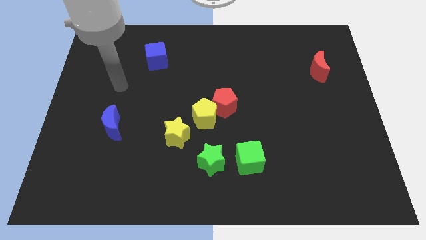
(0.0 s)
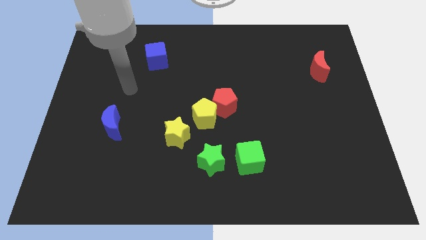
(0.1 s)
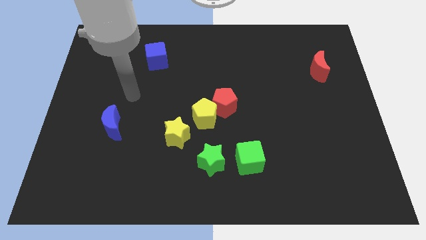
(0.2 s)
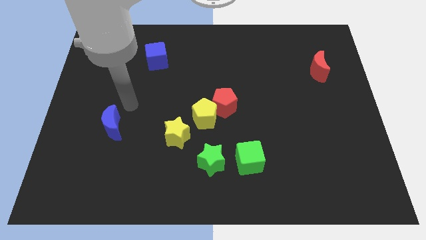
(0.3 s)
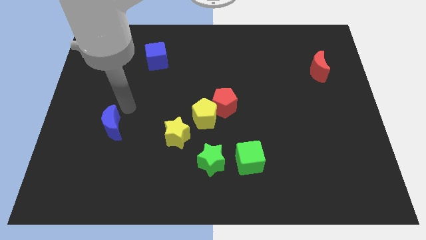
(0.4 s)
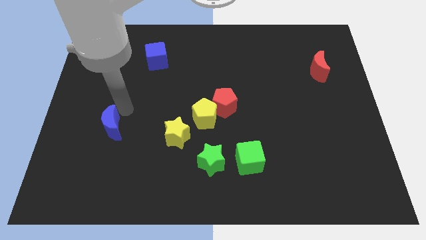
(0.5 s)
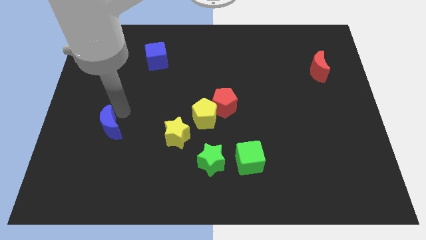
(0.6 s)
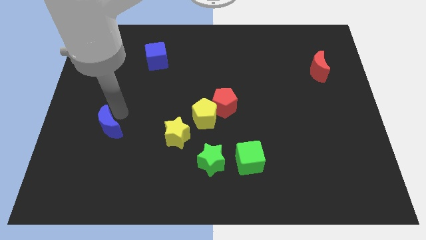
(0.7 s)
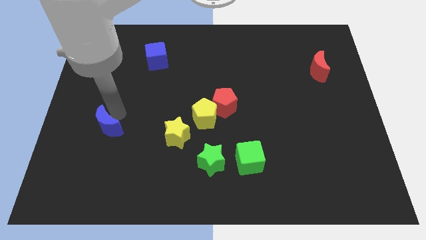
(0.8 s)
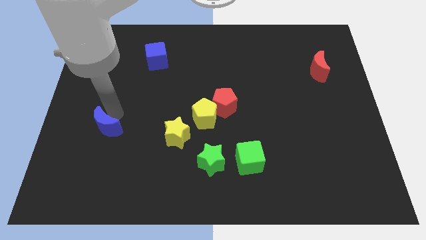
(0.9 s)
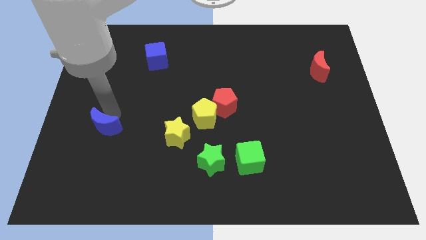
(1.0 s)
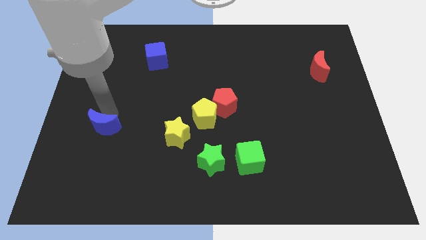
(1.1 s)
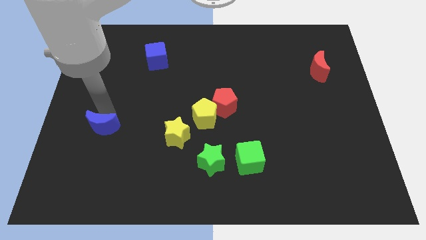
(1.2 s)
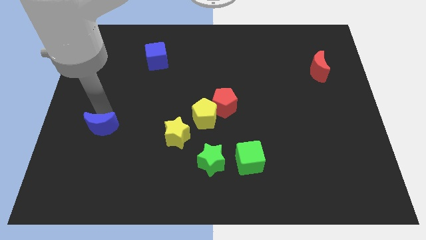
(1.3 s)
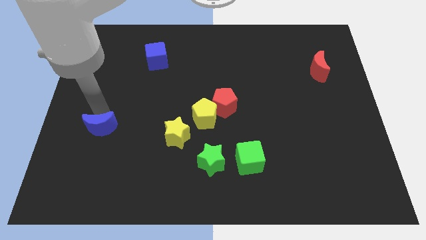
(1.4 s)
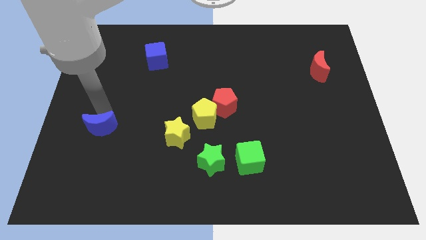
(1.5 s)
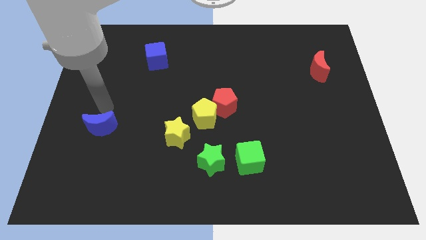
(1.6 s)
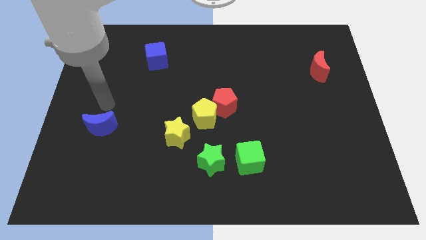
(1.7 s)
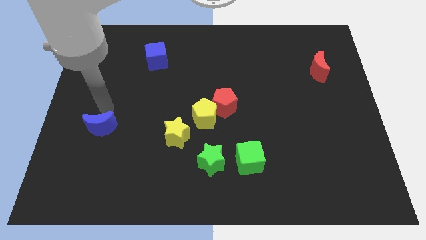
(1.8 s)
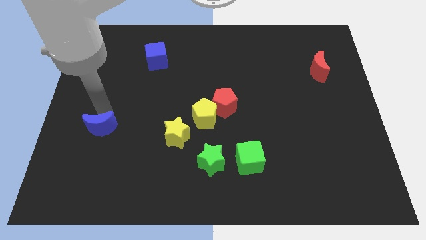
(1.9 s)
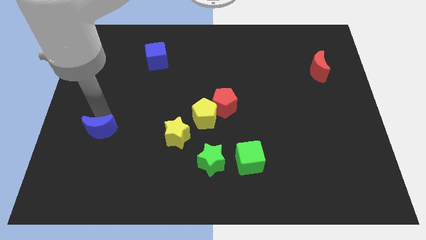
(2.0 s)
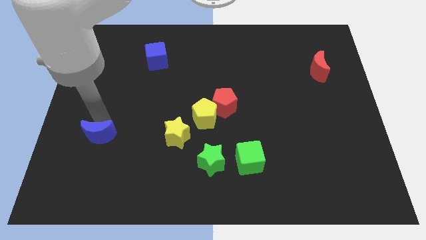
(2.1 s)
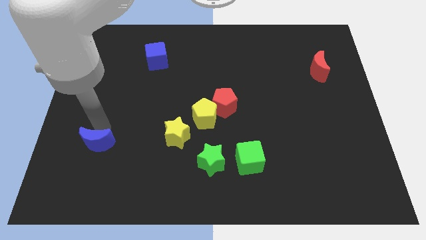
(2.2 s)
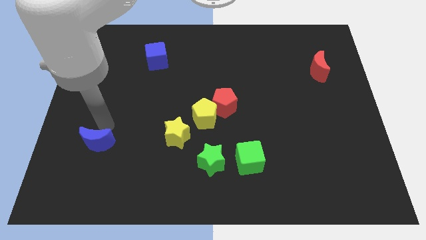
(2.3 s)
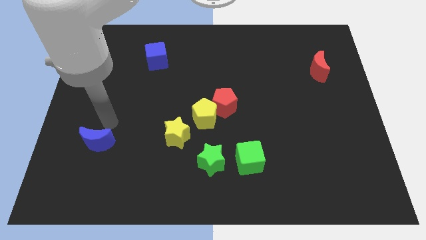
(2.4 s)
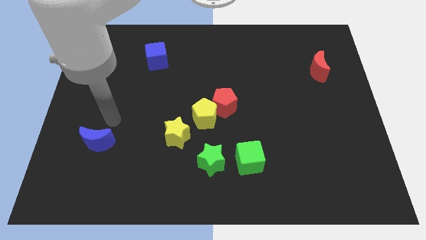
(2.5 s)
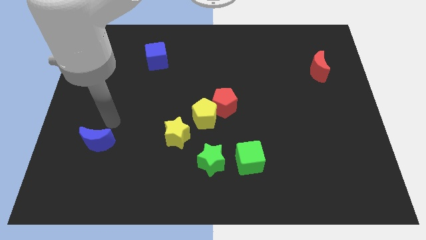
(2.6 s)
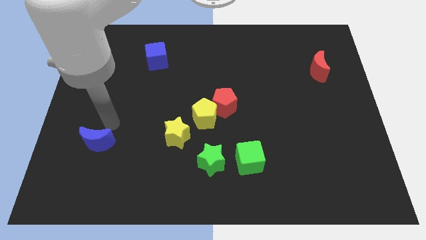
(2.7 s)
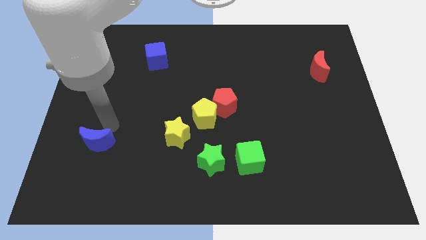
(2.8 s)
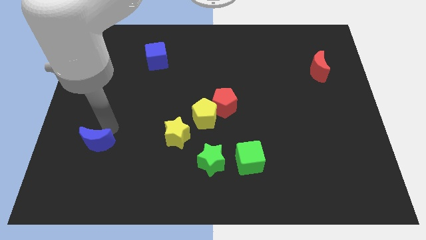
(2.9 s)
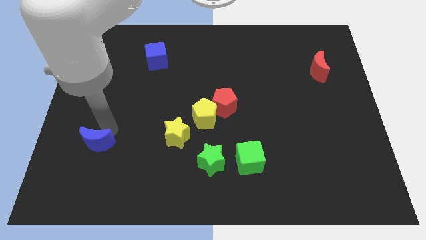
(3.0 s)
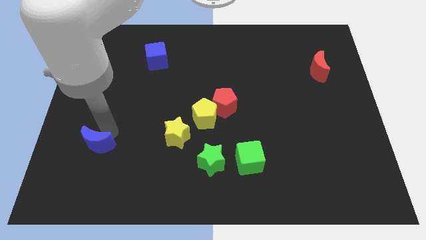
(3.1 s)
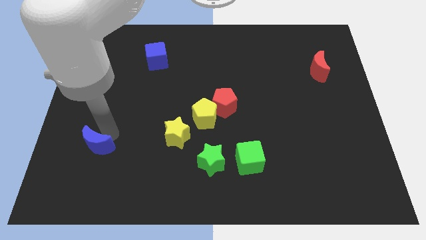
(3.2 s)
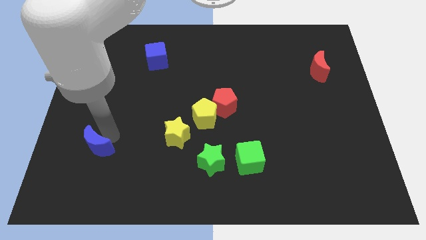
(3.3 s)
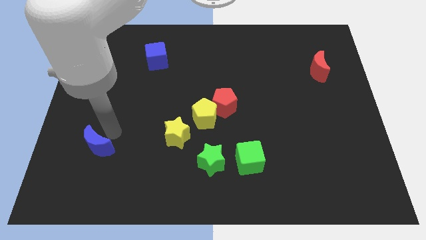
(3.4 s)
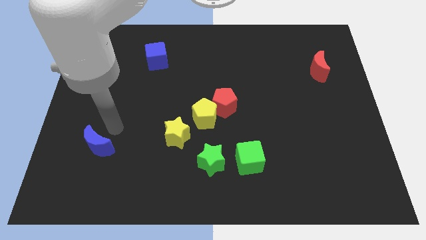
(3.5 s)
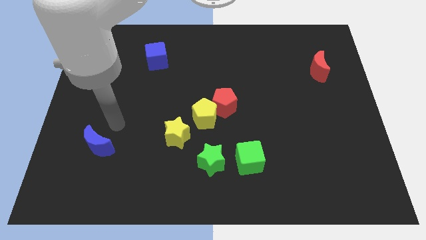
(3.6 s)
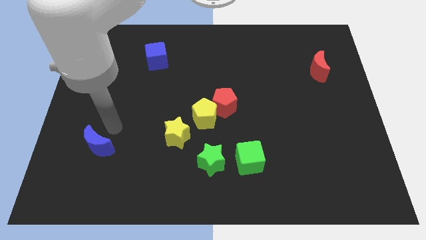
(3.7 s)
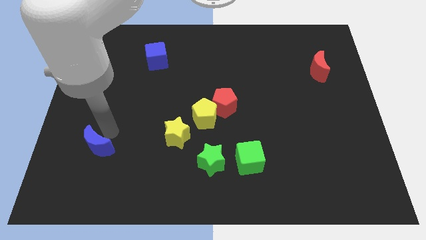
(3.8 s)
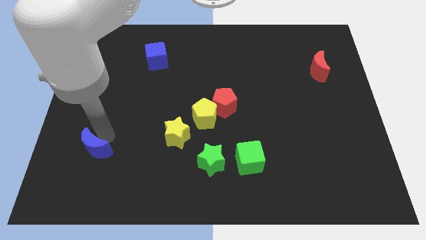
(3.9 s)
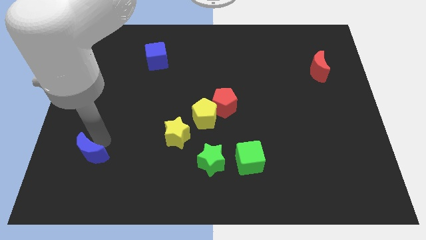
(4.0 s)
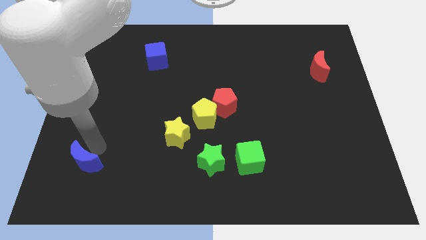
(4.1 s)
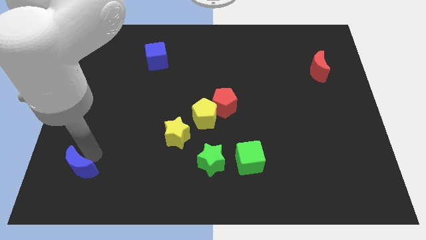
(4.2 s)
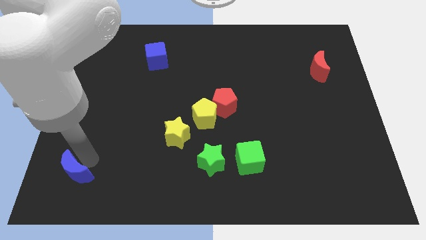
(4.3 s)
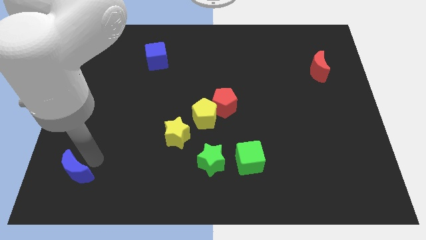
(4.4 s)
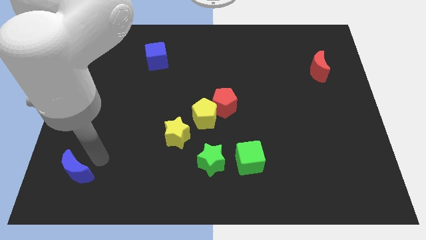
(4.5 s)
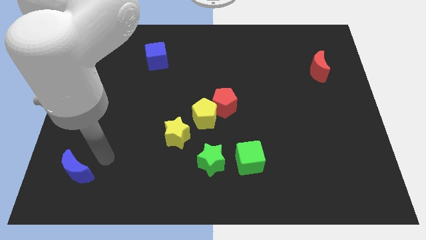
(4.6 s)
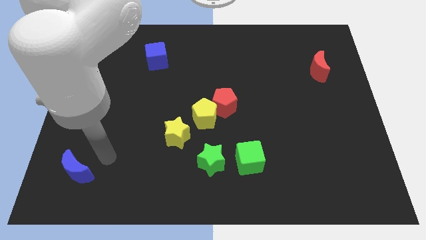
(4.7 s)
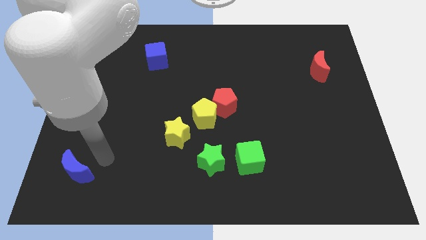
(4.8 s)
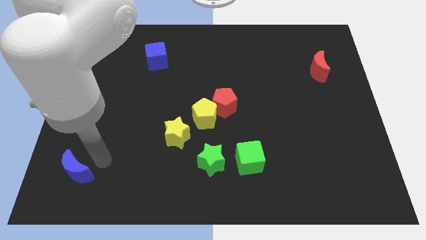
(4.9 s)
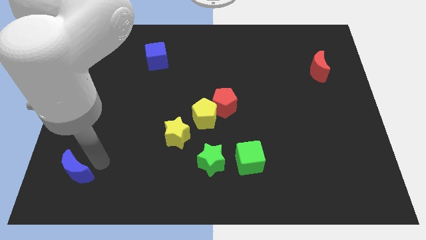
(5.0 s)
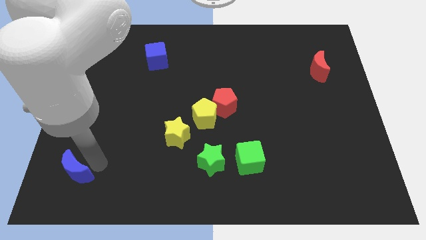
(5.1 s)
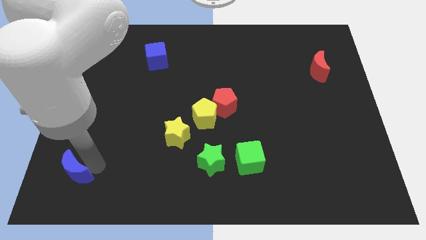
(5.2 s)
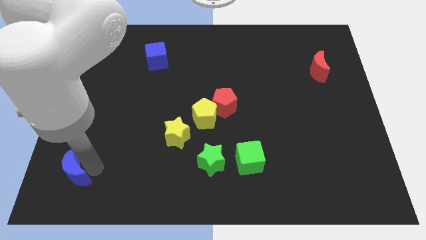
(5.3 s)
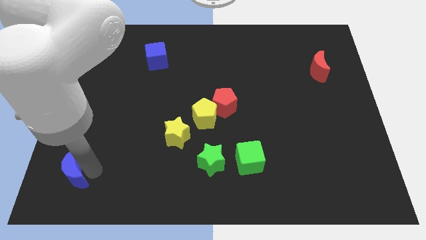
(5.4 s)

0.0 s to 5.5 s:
push the blue moon to the bottom left

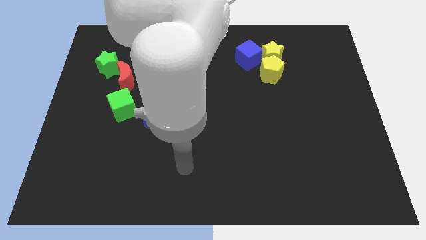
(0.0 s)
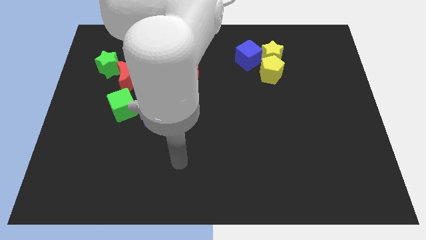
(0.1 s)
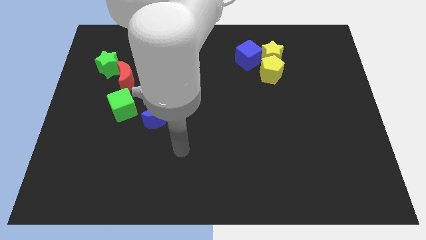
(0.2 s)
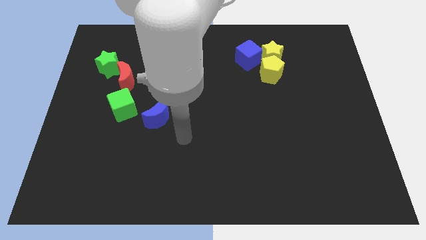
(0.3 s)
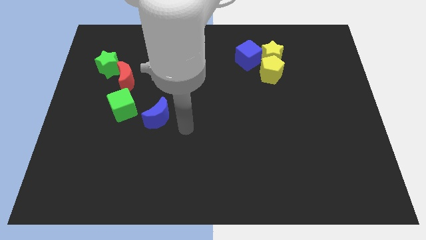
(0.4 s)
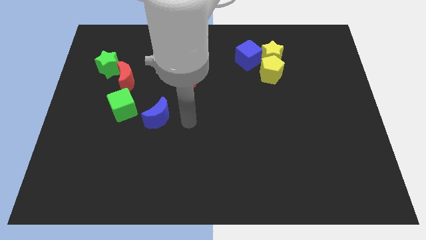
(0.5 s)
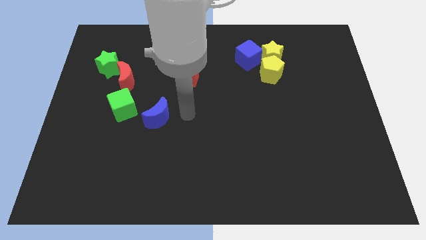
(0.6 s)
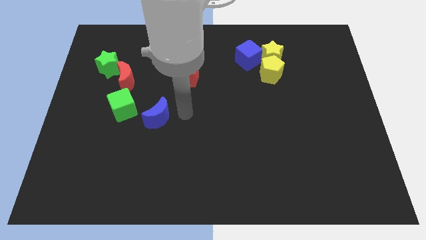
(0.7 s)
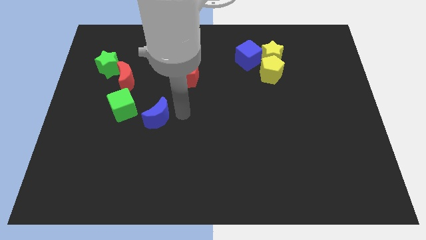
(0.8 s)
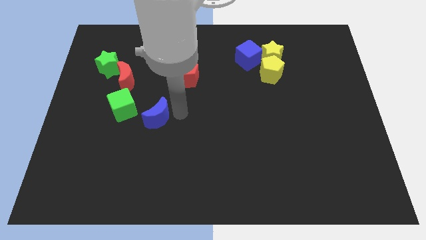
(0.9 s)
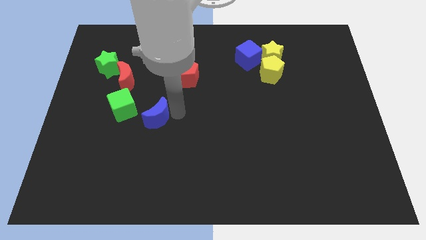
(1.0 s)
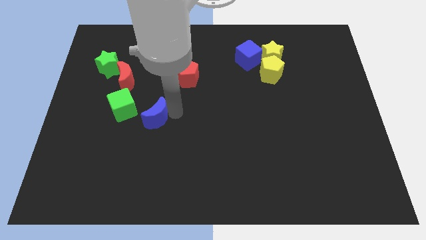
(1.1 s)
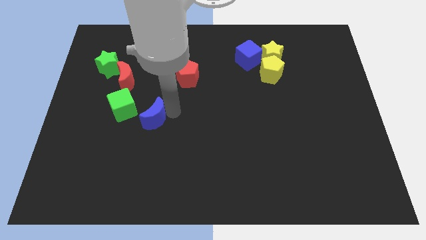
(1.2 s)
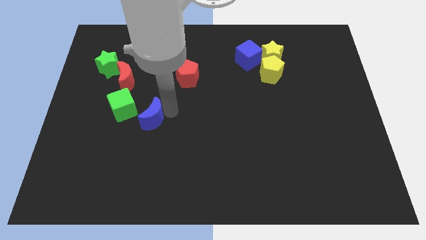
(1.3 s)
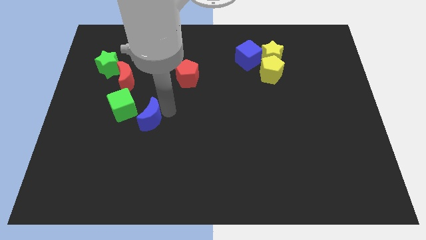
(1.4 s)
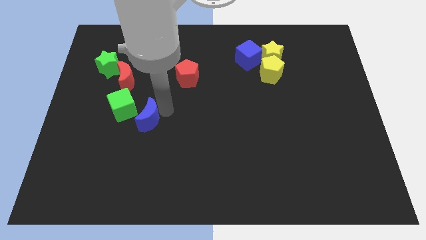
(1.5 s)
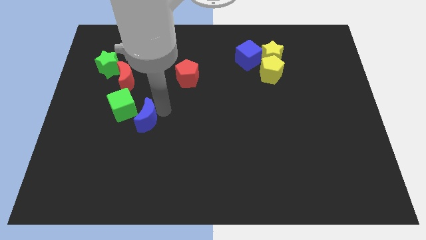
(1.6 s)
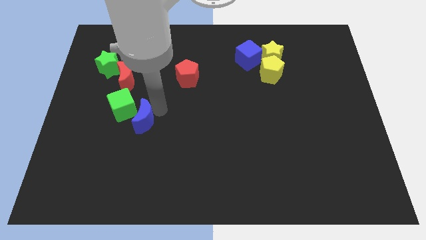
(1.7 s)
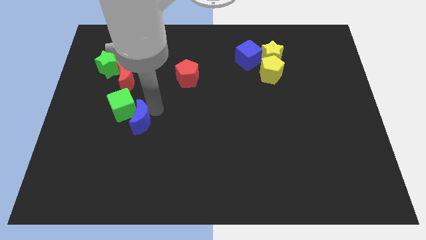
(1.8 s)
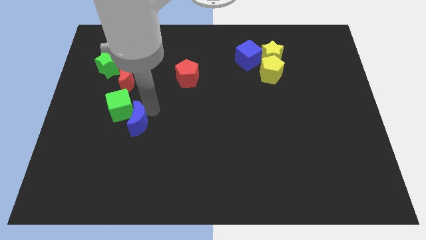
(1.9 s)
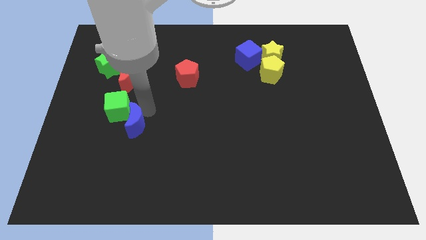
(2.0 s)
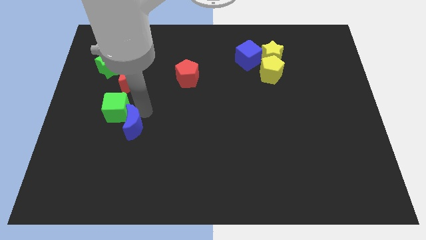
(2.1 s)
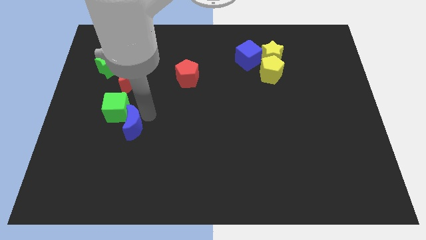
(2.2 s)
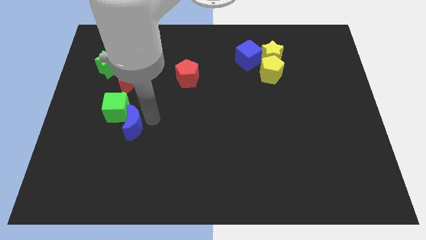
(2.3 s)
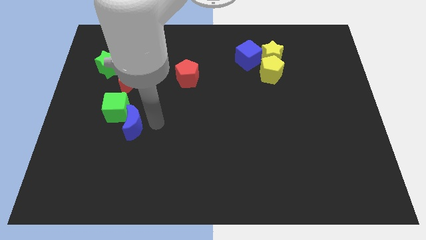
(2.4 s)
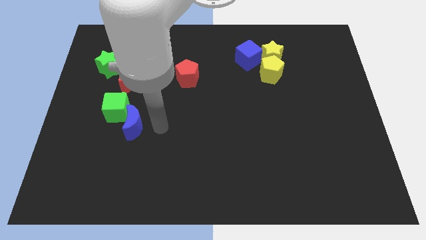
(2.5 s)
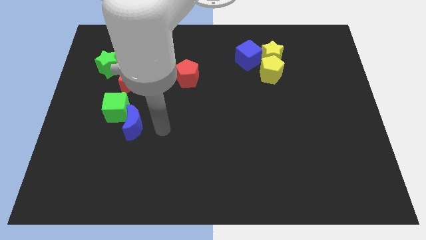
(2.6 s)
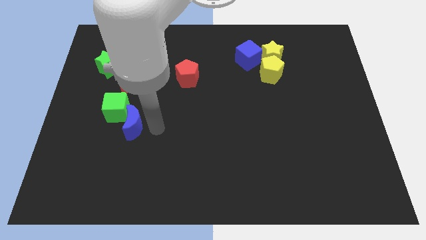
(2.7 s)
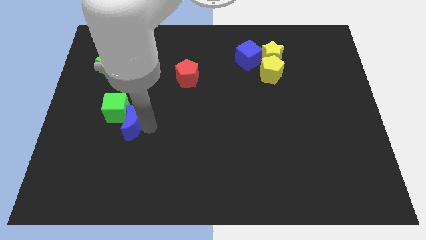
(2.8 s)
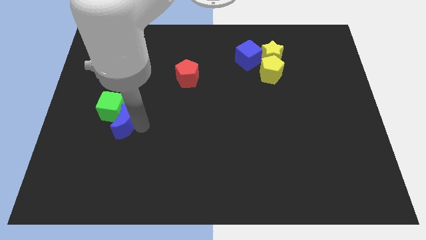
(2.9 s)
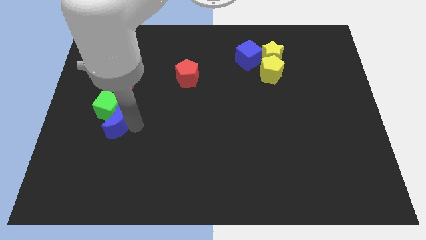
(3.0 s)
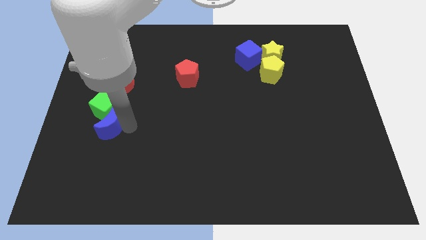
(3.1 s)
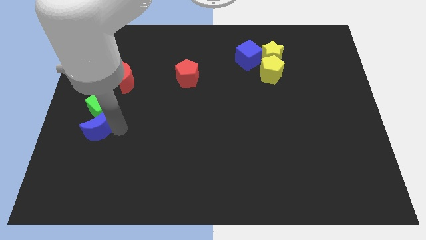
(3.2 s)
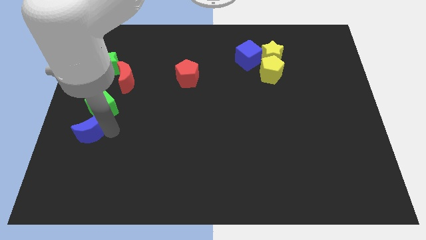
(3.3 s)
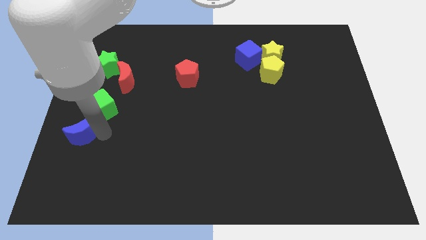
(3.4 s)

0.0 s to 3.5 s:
push the blue moon to the left side
